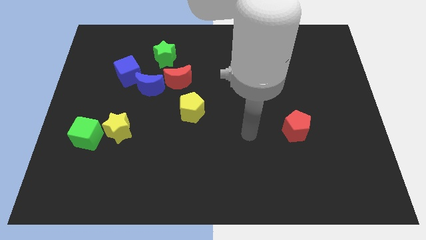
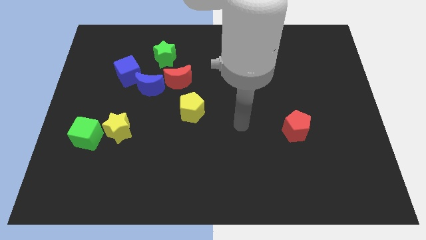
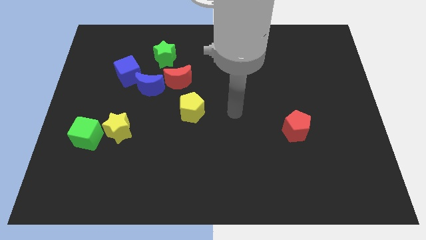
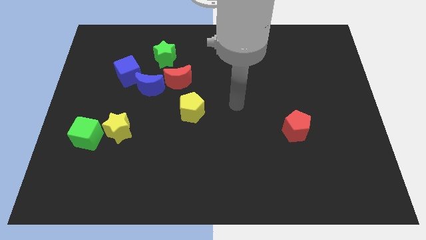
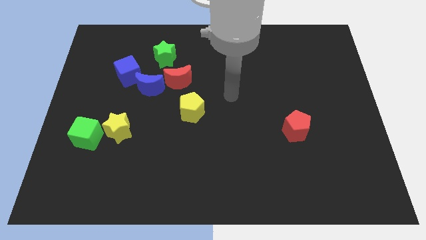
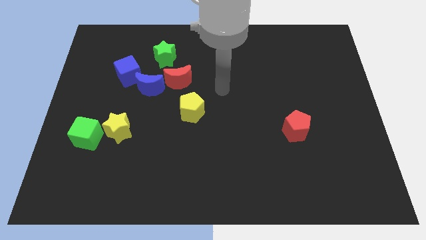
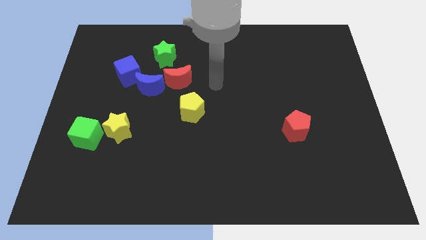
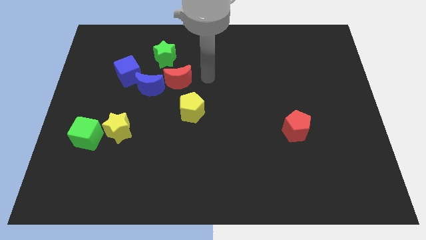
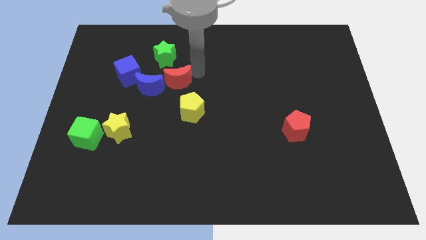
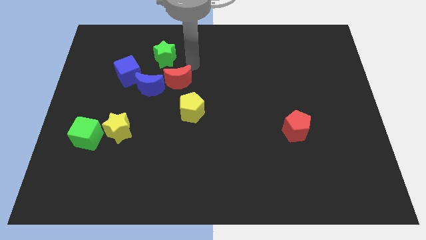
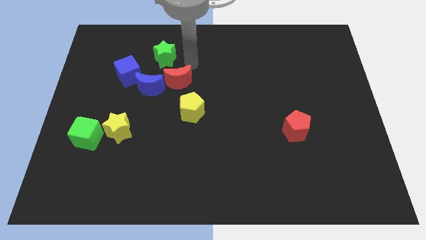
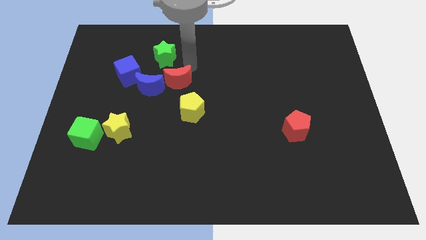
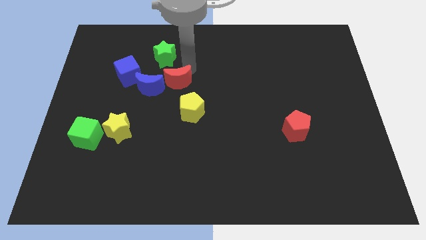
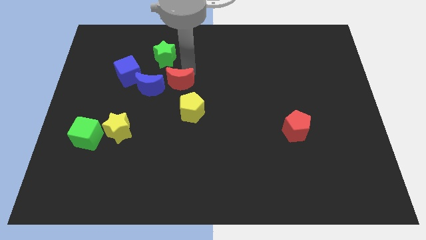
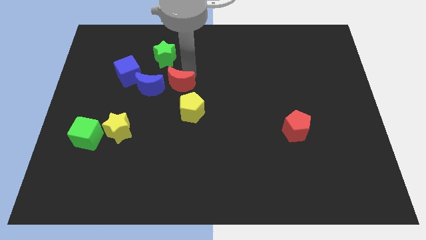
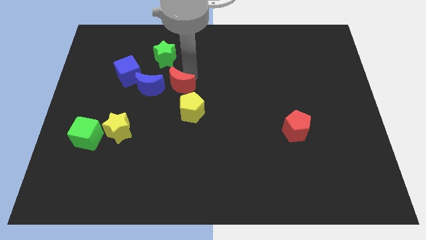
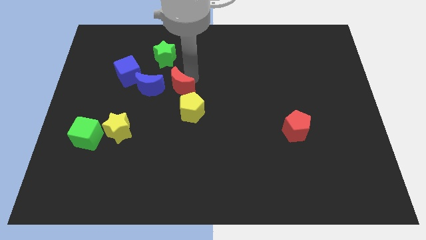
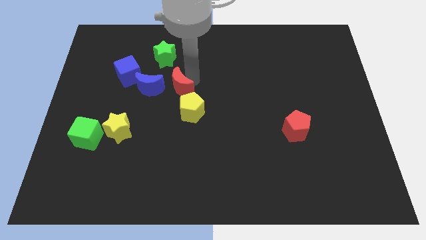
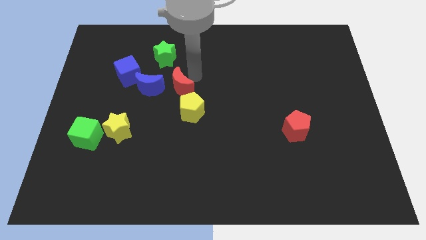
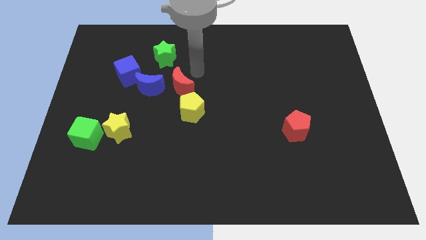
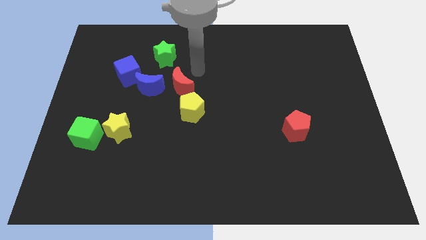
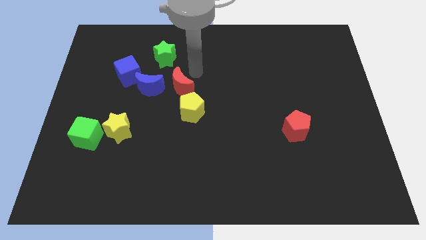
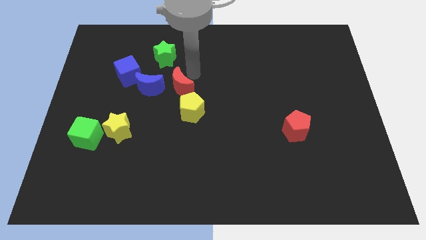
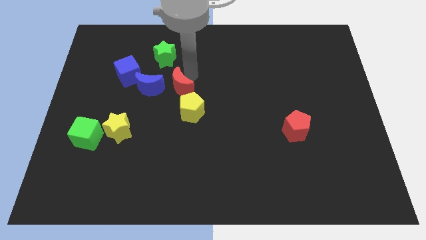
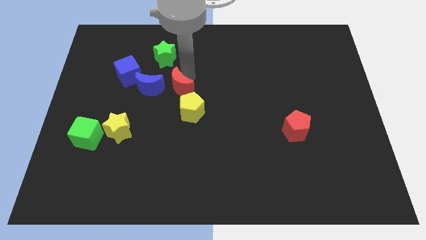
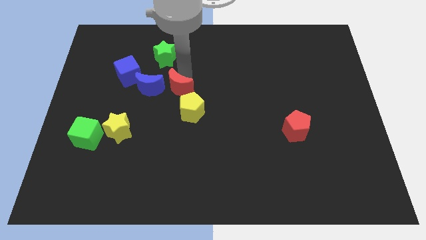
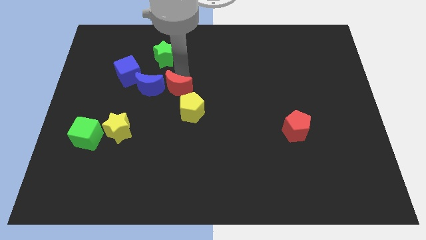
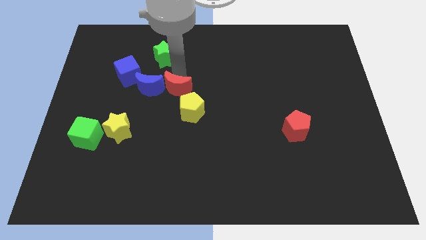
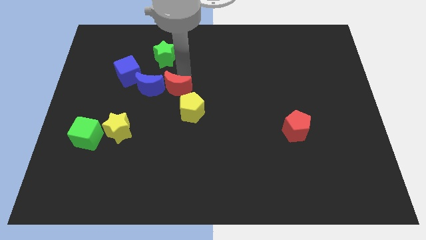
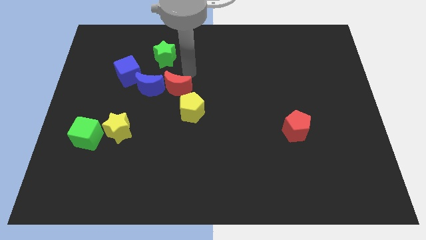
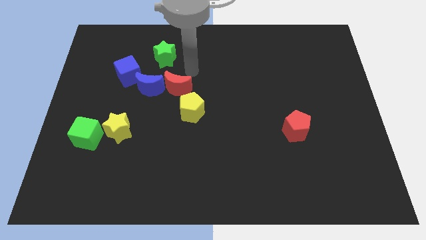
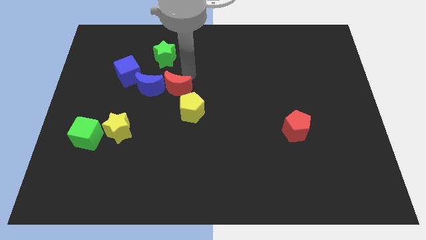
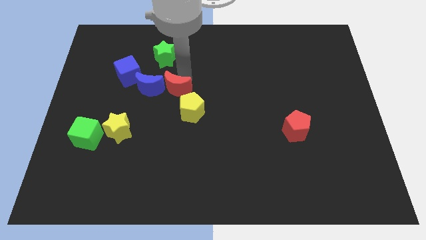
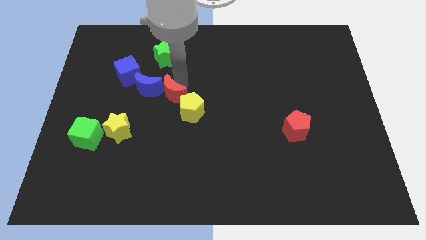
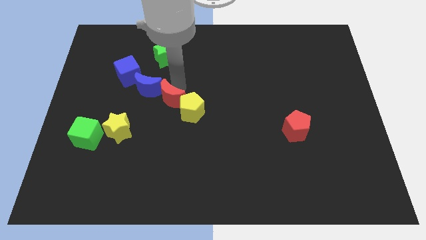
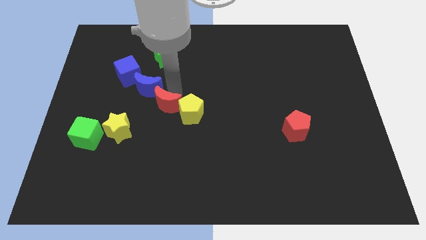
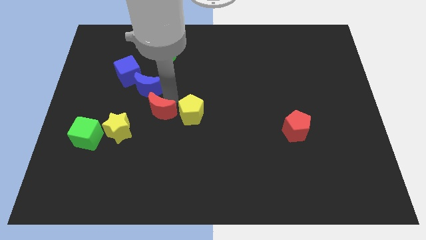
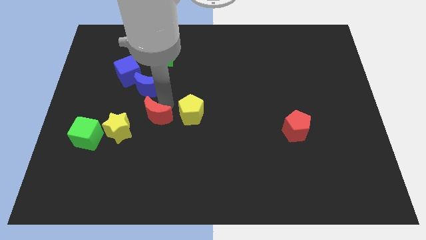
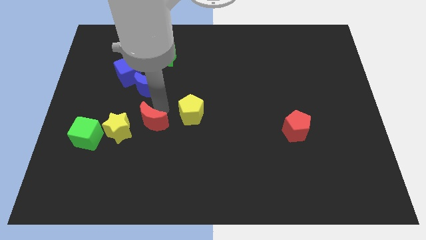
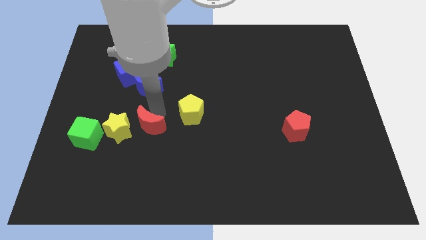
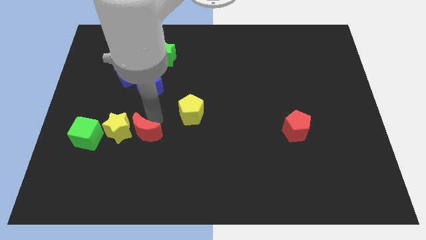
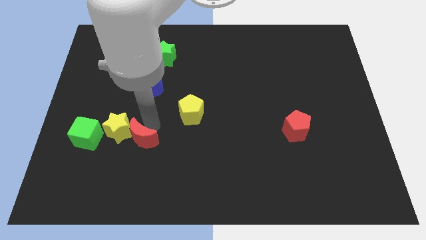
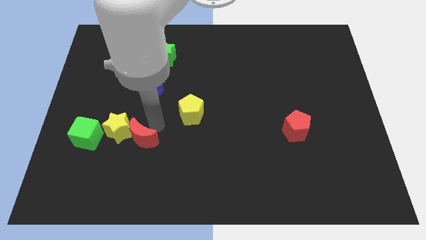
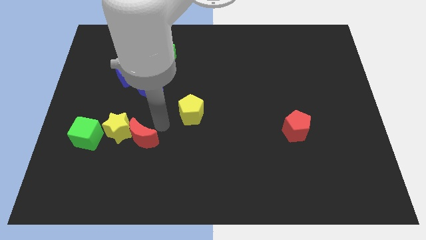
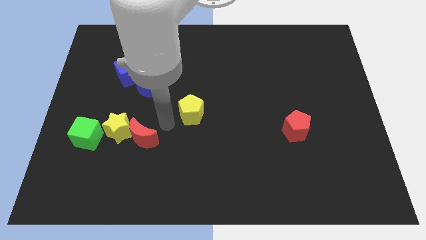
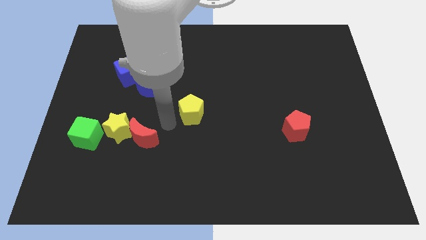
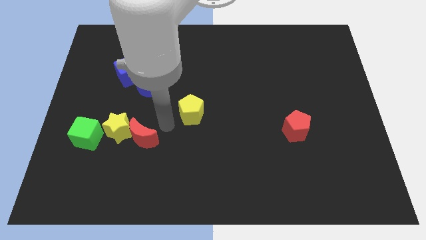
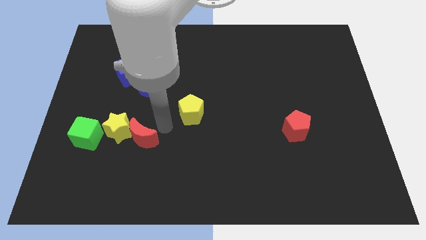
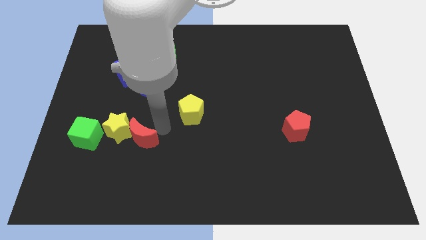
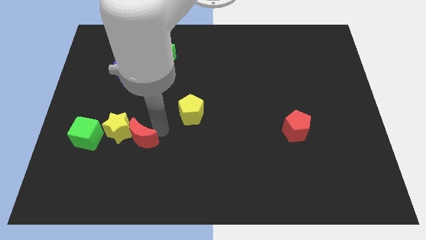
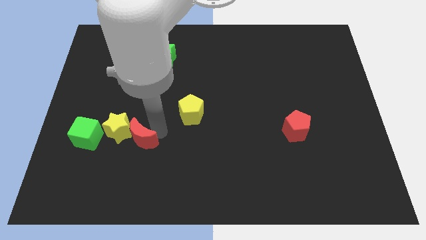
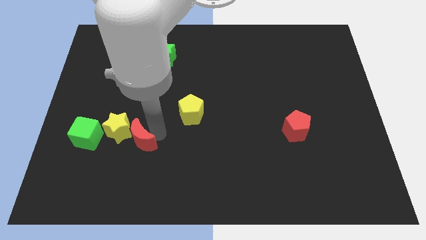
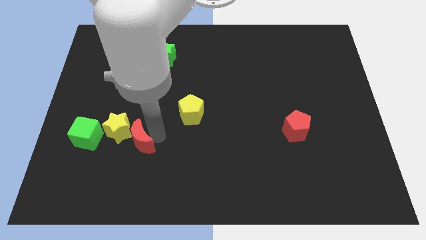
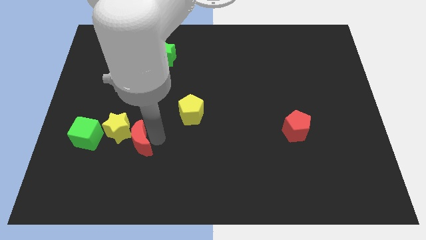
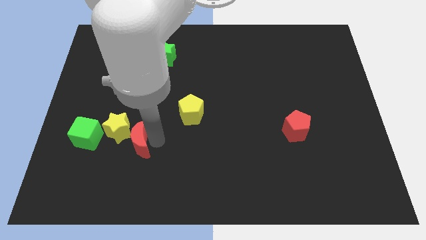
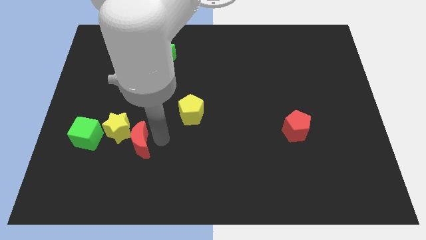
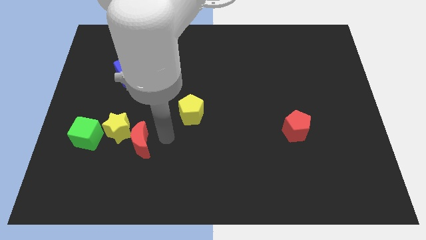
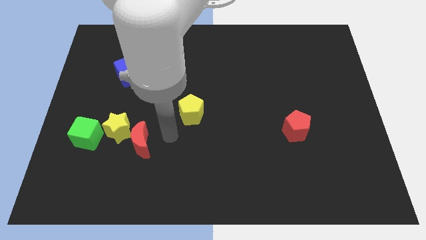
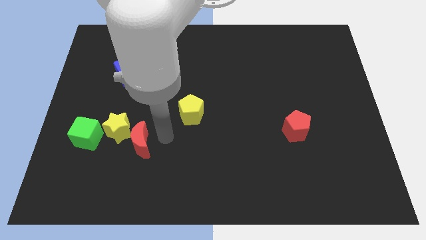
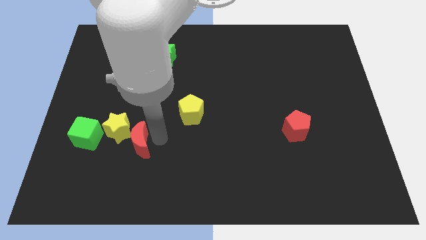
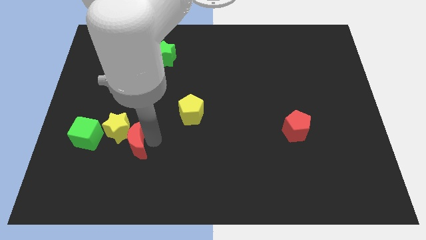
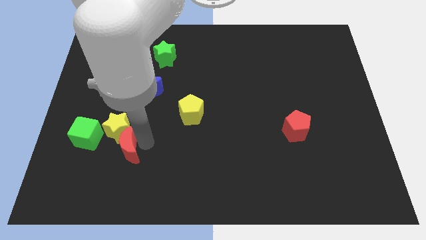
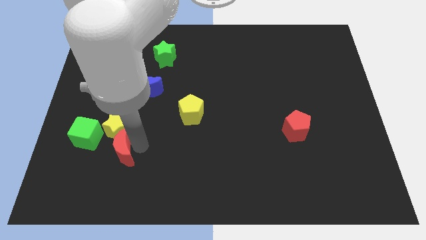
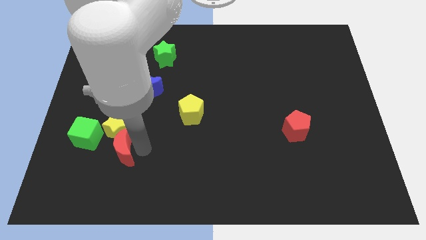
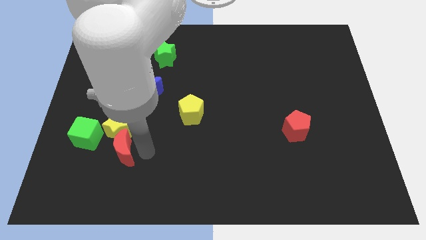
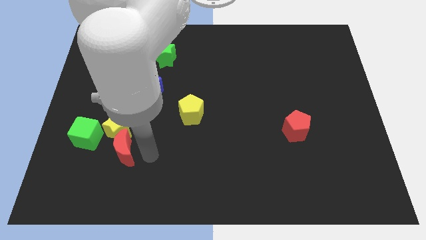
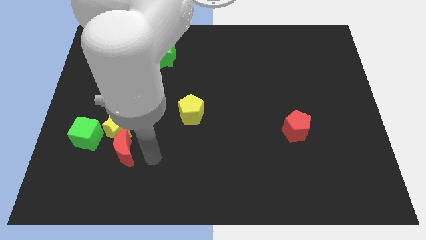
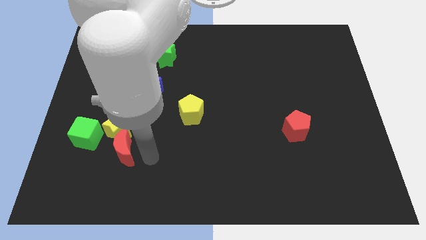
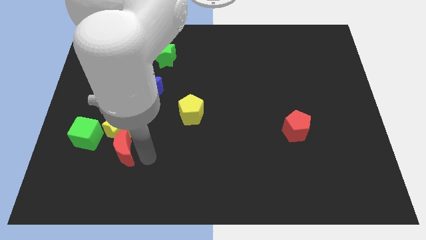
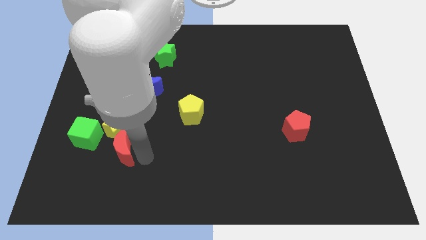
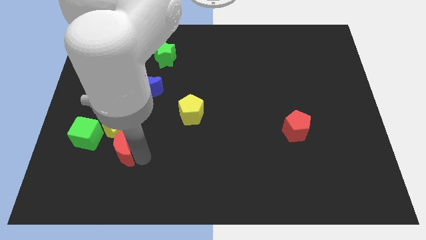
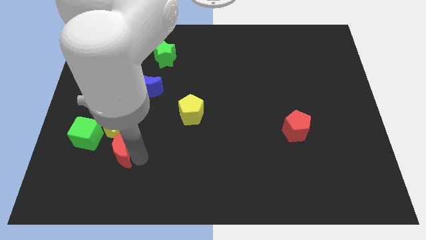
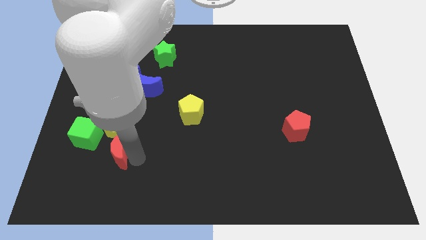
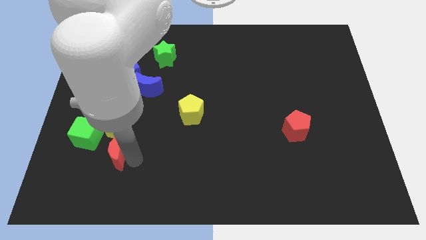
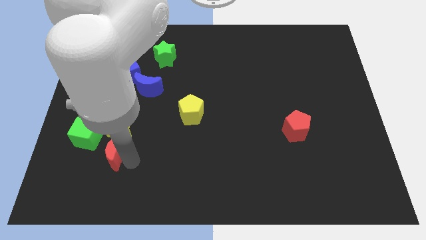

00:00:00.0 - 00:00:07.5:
put the red moon to the bottom left side of the yellow star
